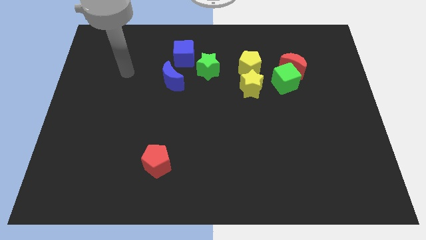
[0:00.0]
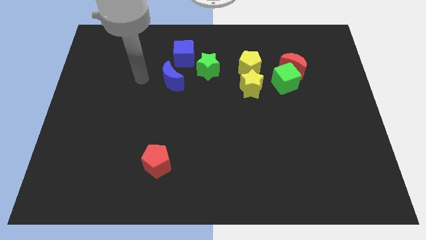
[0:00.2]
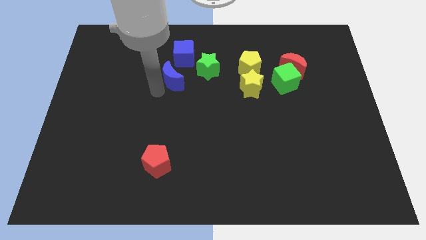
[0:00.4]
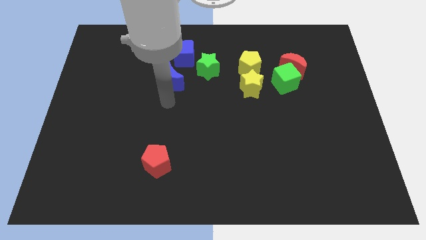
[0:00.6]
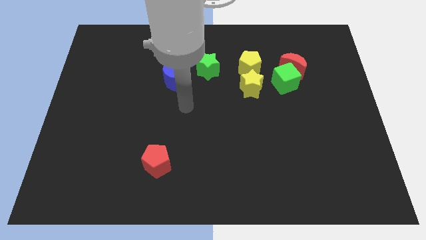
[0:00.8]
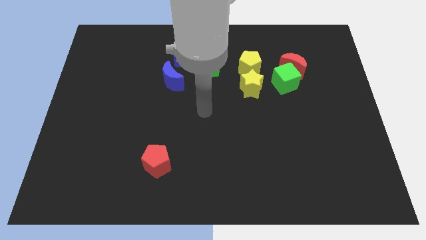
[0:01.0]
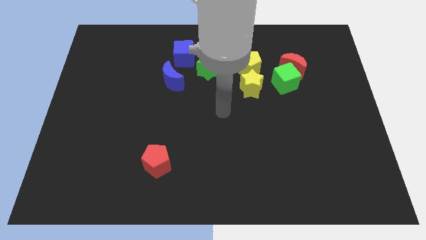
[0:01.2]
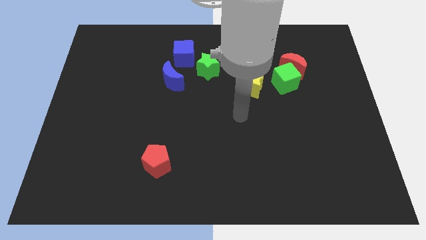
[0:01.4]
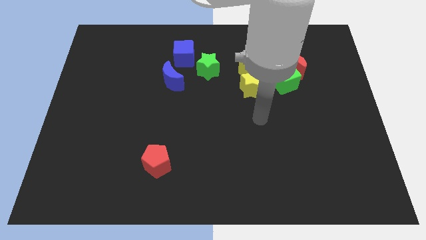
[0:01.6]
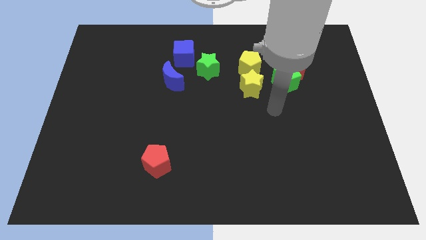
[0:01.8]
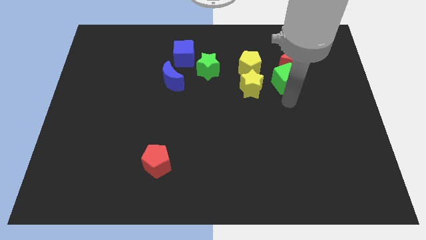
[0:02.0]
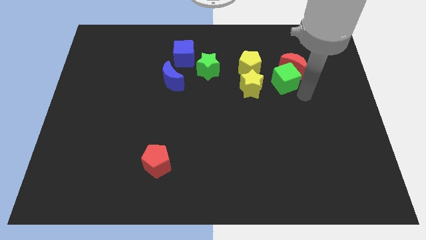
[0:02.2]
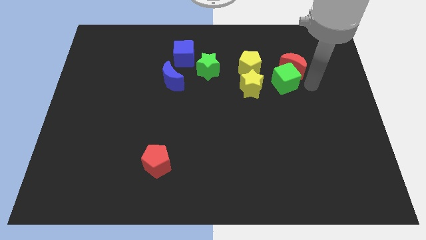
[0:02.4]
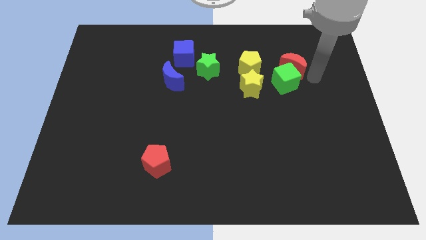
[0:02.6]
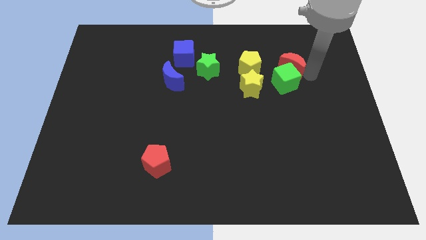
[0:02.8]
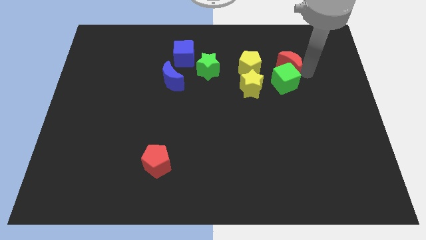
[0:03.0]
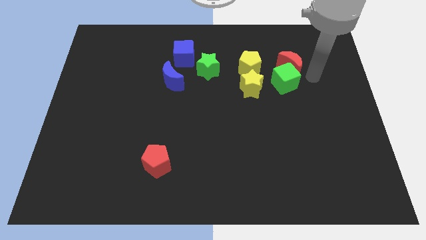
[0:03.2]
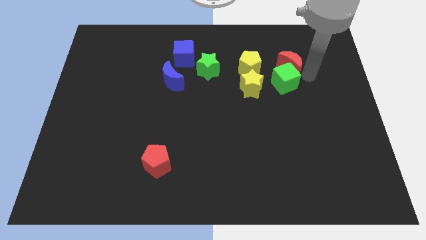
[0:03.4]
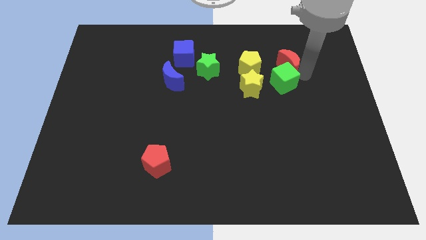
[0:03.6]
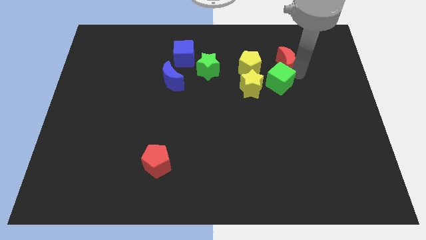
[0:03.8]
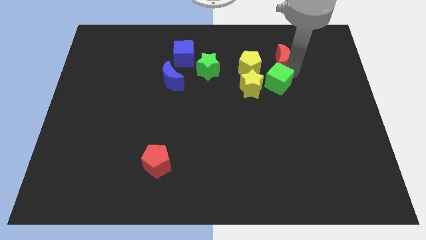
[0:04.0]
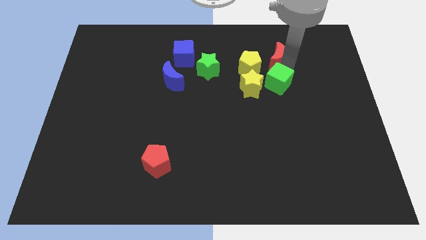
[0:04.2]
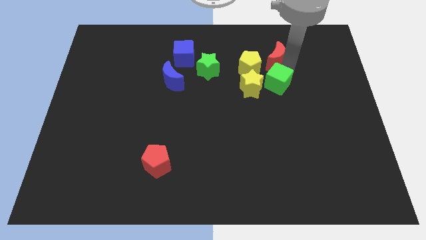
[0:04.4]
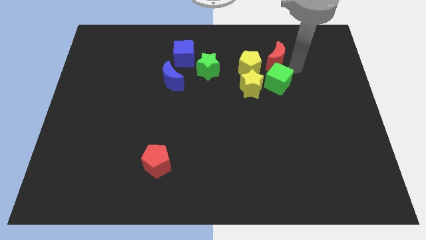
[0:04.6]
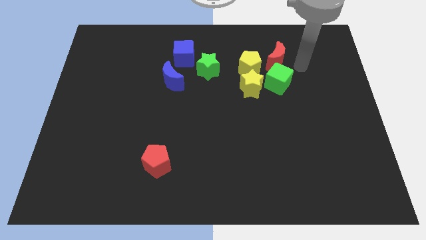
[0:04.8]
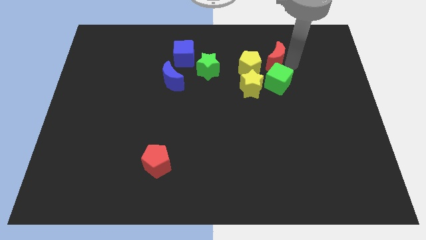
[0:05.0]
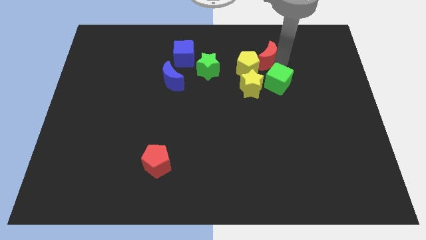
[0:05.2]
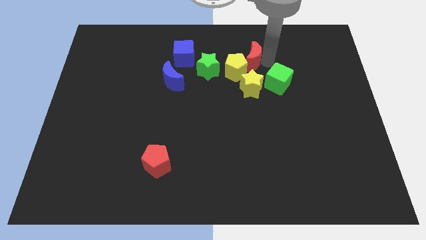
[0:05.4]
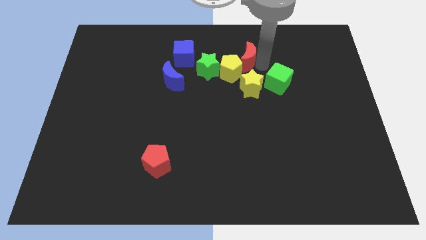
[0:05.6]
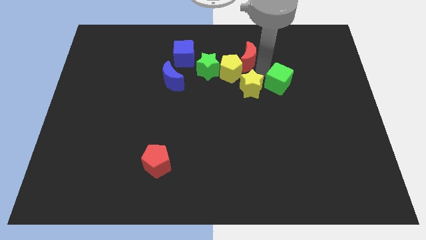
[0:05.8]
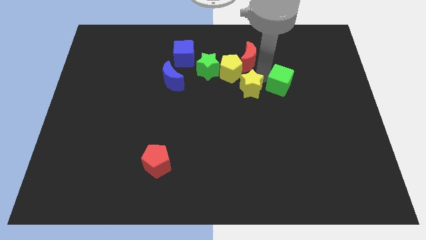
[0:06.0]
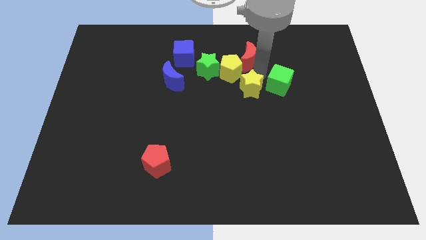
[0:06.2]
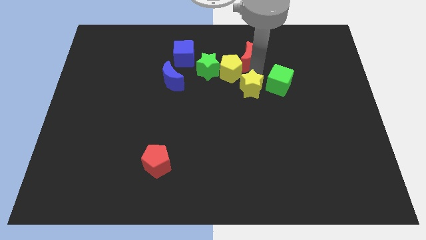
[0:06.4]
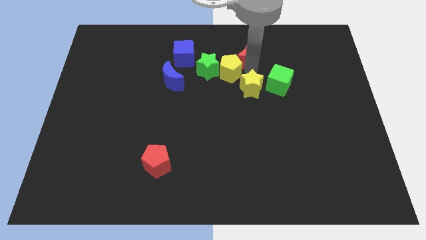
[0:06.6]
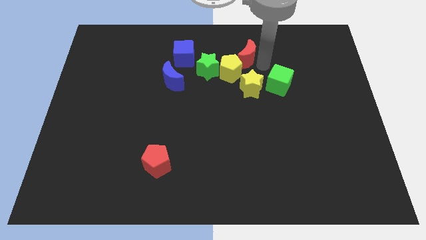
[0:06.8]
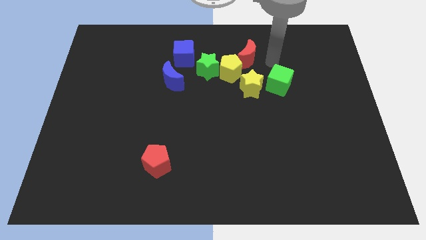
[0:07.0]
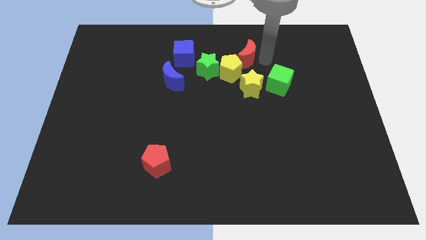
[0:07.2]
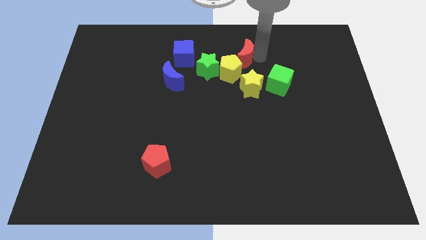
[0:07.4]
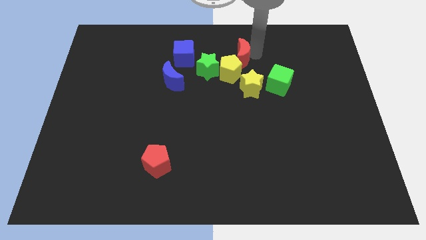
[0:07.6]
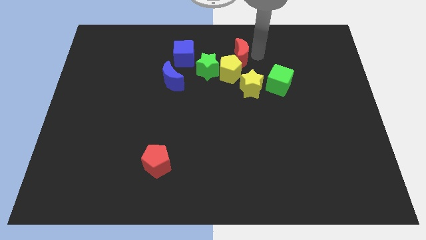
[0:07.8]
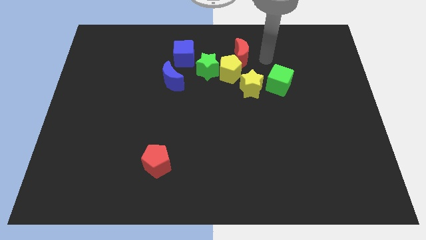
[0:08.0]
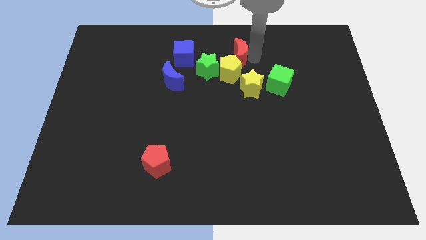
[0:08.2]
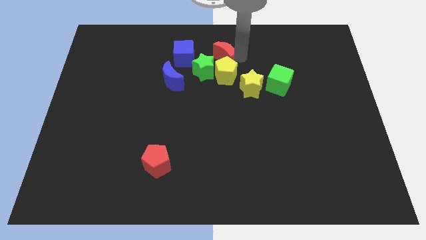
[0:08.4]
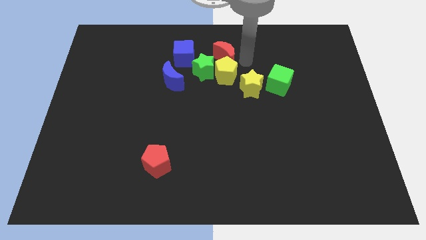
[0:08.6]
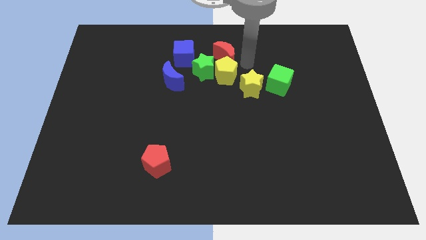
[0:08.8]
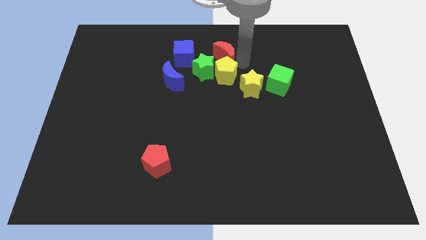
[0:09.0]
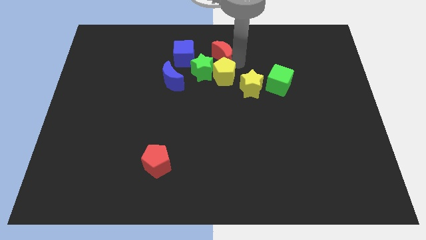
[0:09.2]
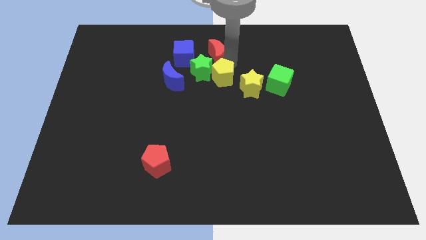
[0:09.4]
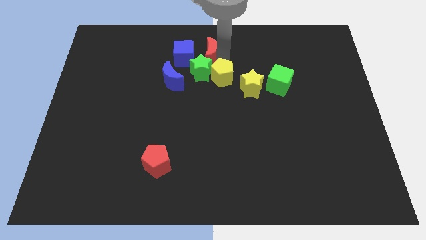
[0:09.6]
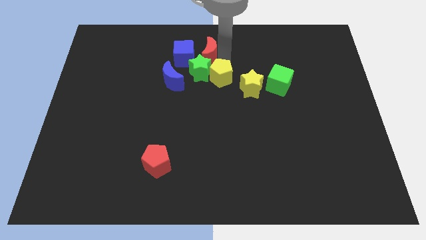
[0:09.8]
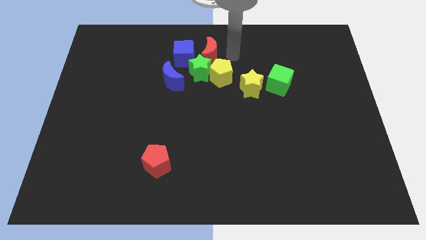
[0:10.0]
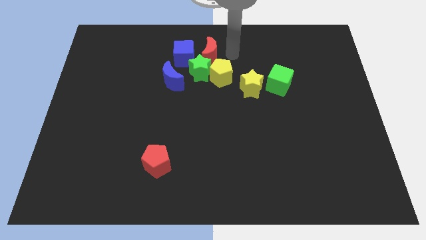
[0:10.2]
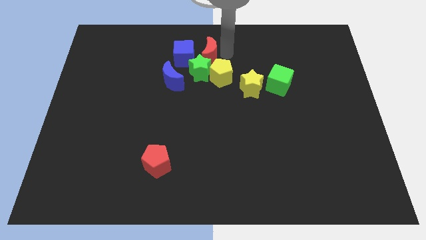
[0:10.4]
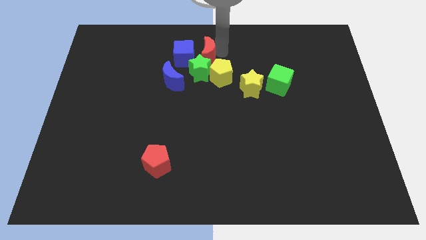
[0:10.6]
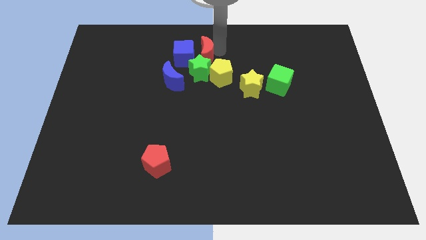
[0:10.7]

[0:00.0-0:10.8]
move the red moon next to the blue cube

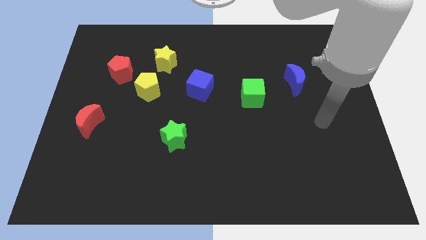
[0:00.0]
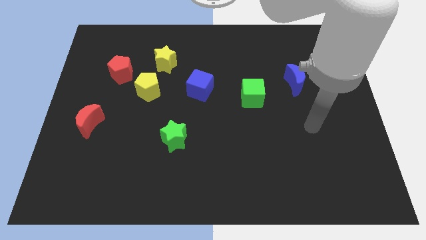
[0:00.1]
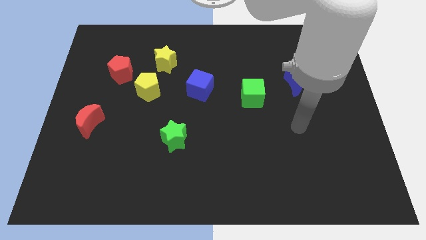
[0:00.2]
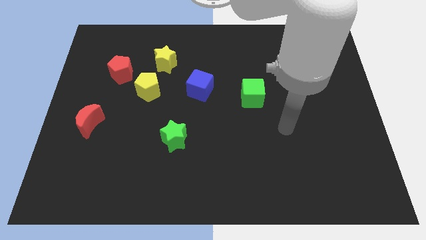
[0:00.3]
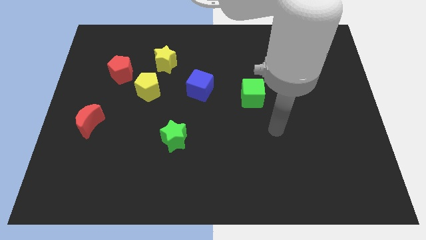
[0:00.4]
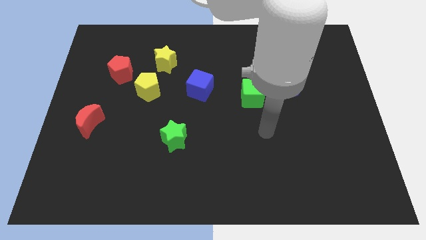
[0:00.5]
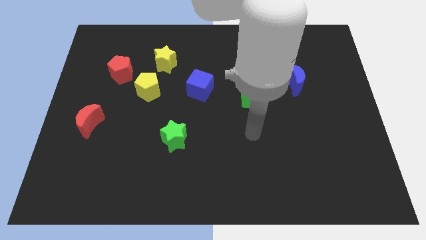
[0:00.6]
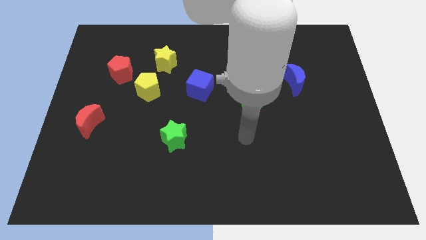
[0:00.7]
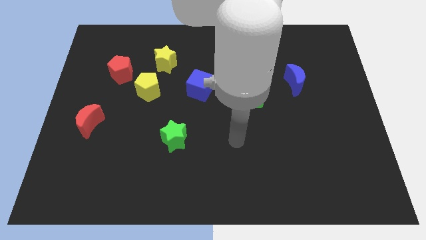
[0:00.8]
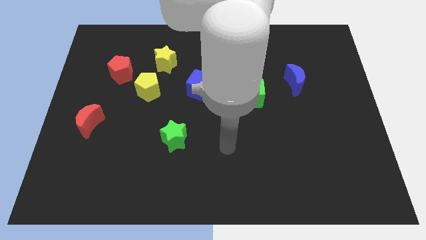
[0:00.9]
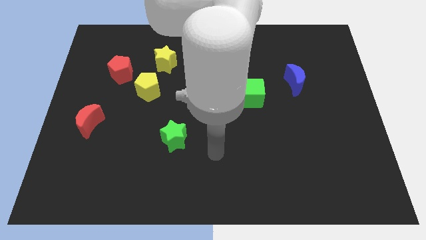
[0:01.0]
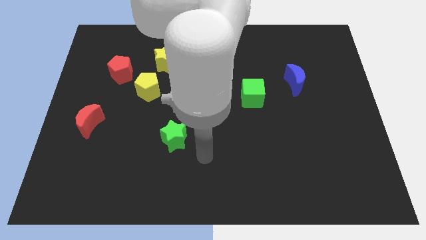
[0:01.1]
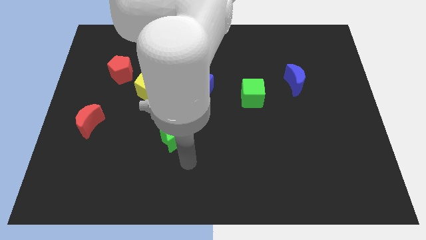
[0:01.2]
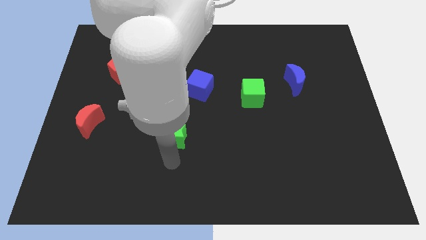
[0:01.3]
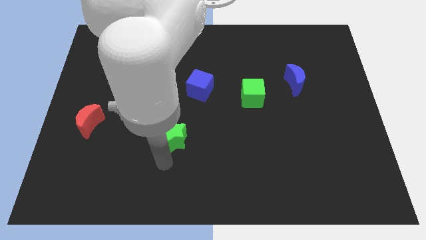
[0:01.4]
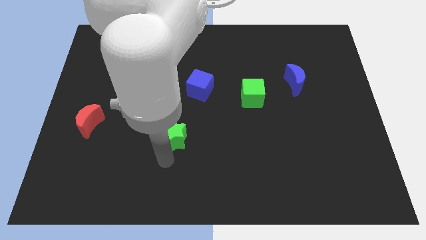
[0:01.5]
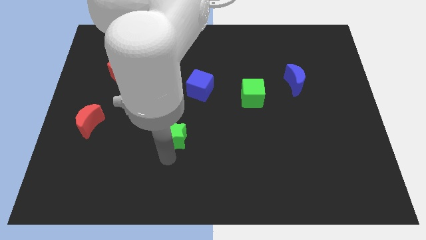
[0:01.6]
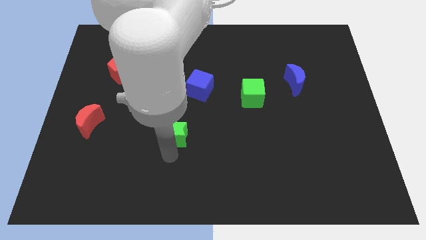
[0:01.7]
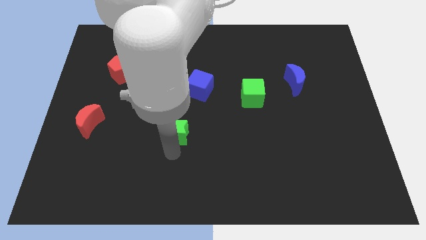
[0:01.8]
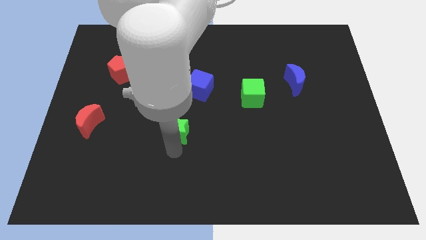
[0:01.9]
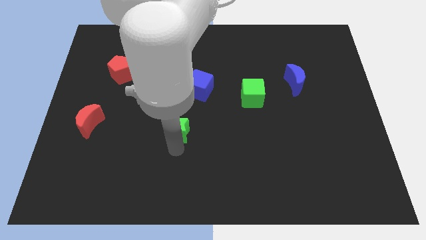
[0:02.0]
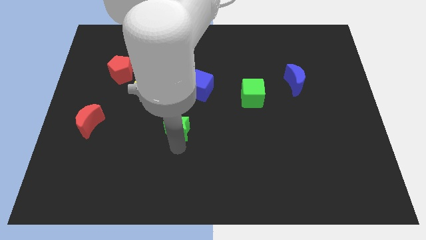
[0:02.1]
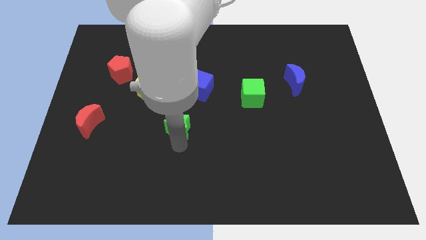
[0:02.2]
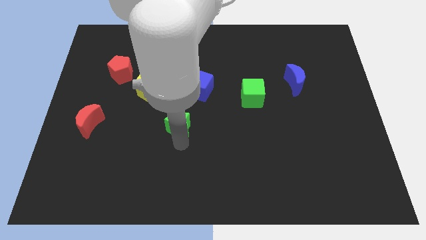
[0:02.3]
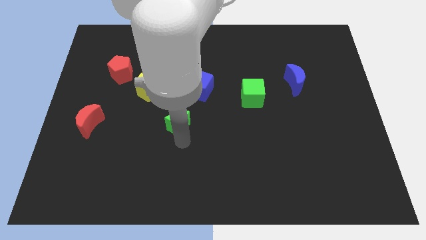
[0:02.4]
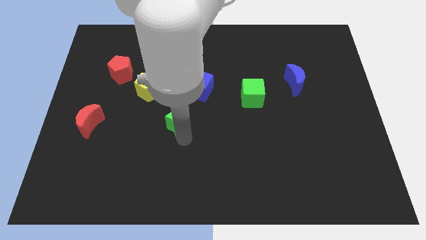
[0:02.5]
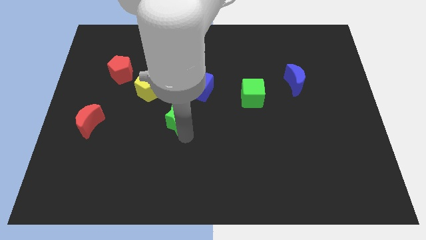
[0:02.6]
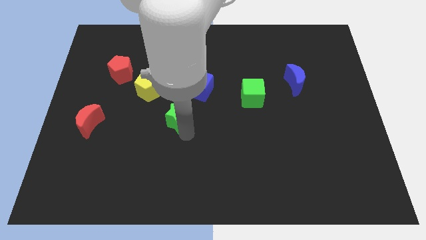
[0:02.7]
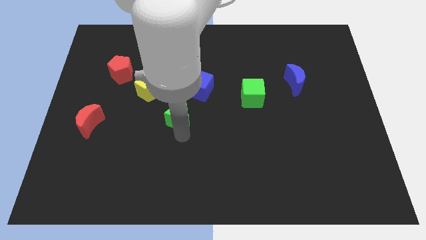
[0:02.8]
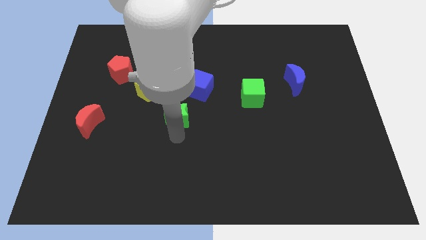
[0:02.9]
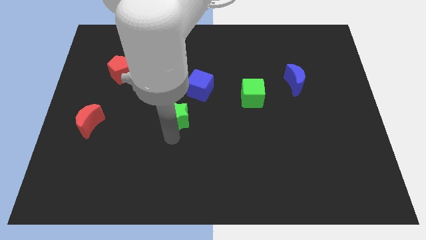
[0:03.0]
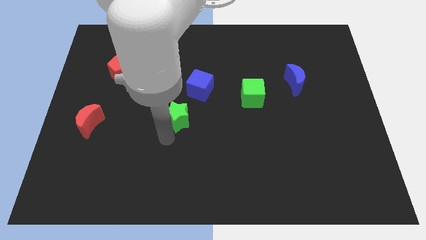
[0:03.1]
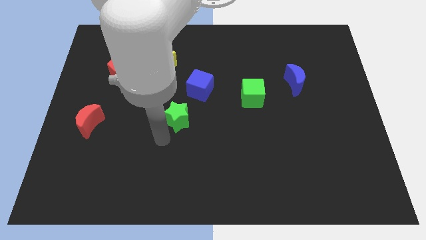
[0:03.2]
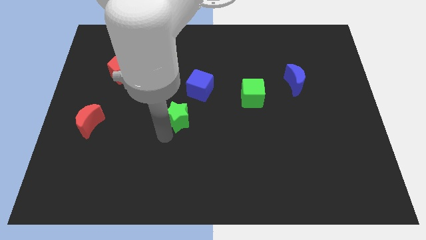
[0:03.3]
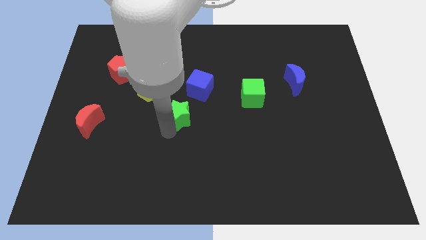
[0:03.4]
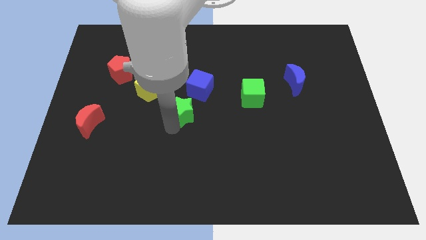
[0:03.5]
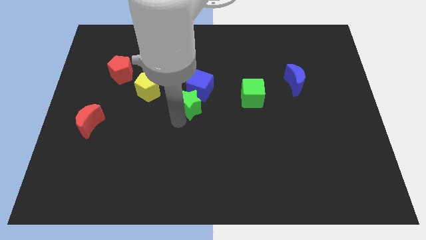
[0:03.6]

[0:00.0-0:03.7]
slide the green star to the blue cube
